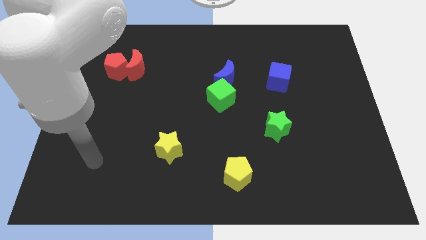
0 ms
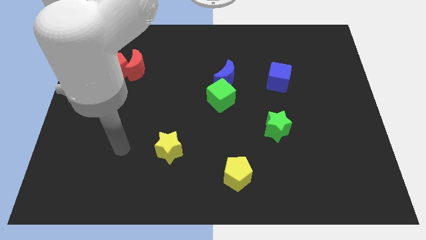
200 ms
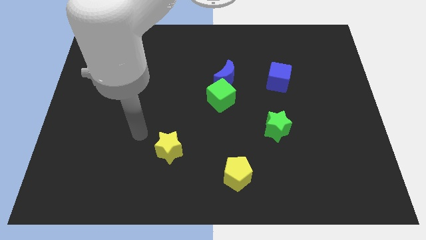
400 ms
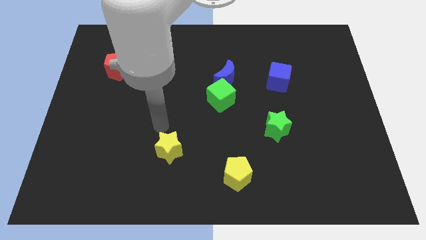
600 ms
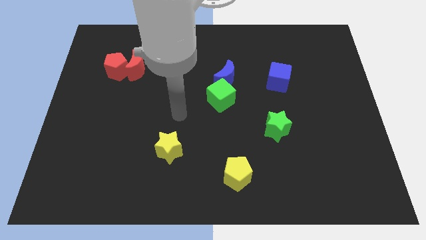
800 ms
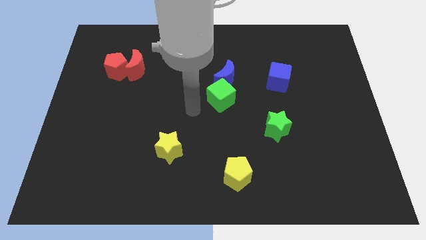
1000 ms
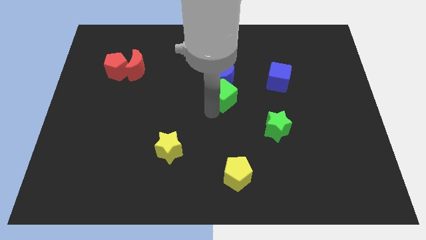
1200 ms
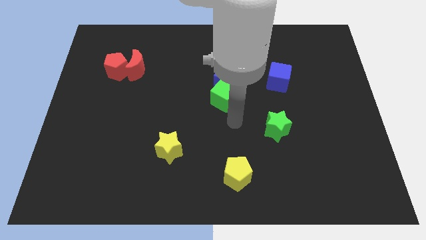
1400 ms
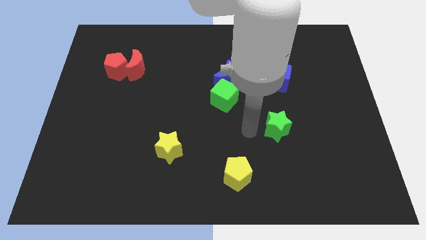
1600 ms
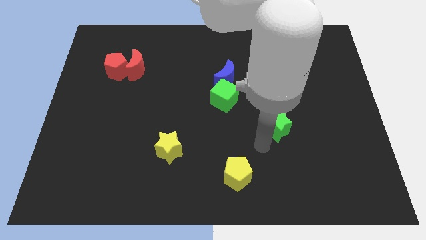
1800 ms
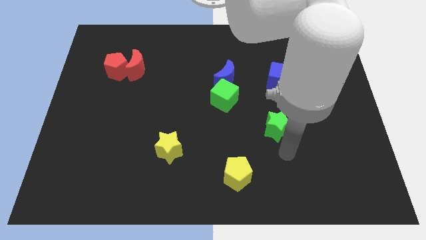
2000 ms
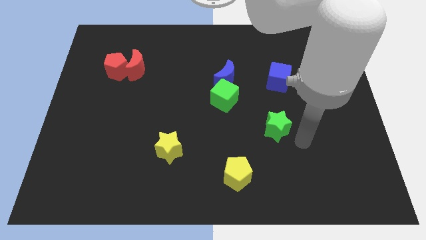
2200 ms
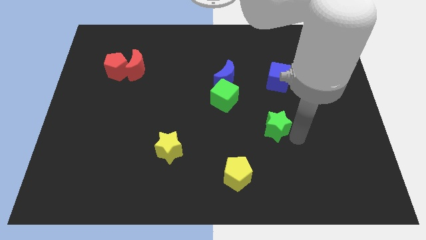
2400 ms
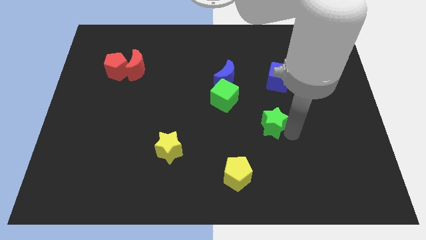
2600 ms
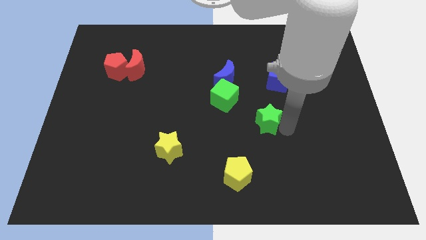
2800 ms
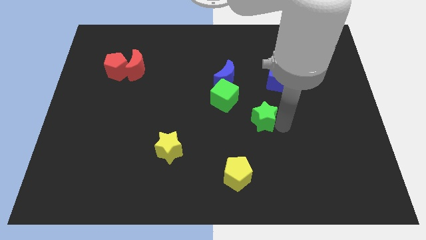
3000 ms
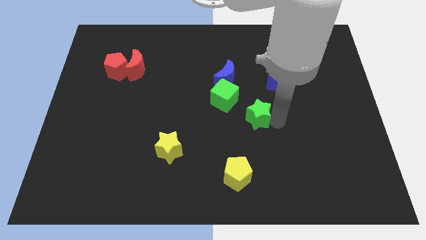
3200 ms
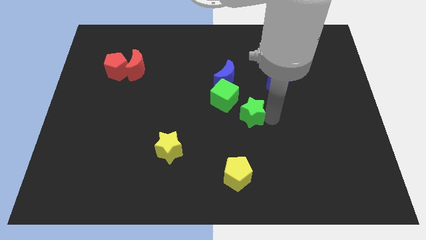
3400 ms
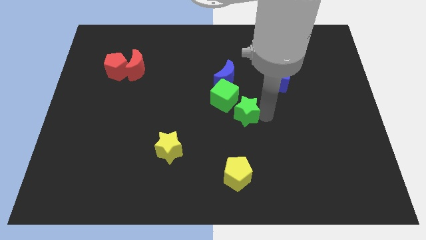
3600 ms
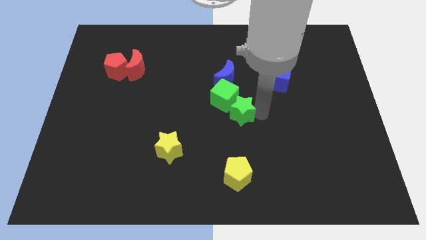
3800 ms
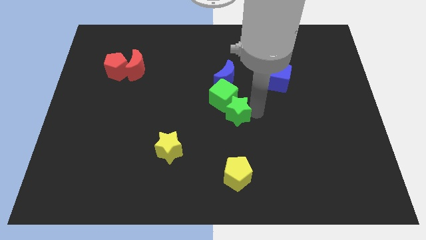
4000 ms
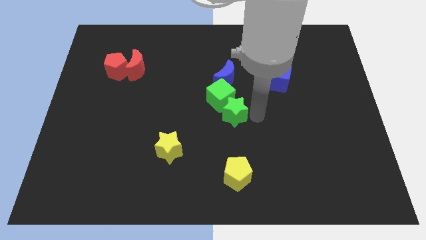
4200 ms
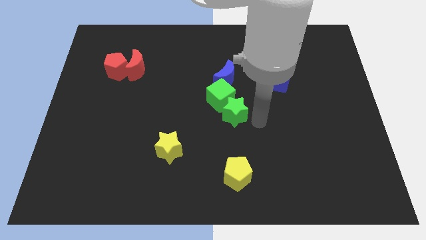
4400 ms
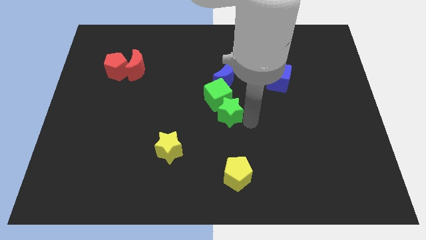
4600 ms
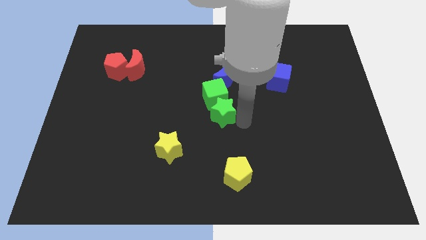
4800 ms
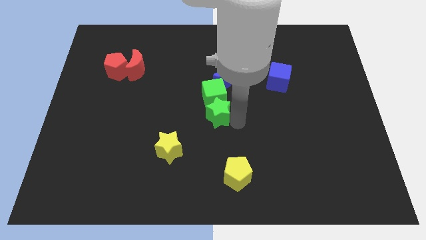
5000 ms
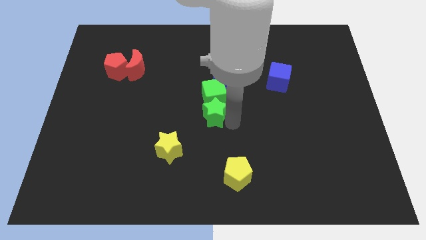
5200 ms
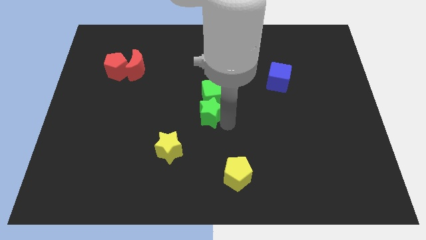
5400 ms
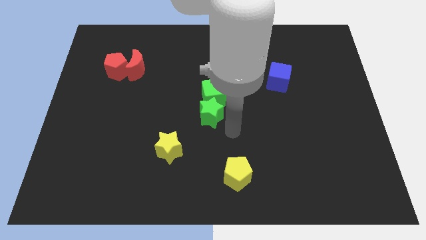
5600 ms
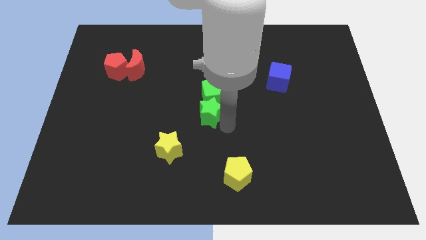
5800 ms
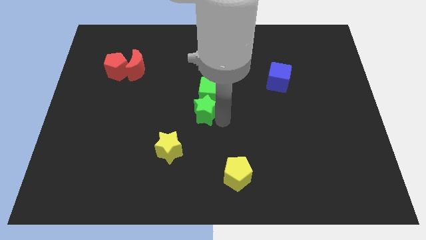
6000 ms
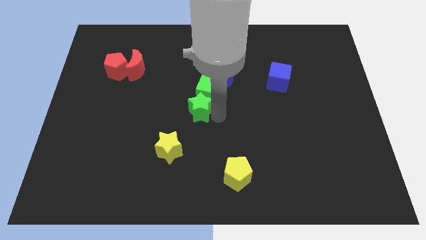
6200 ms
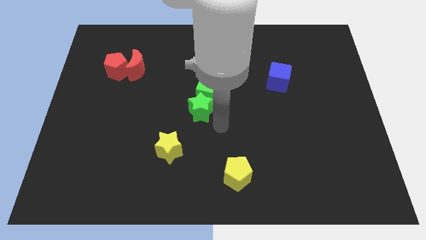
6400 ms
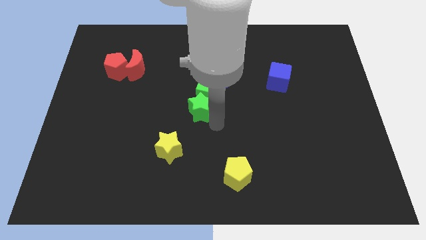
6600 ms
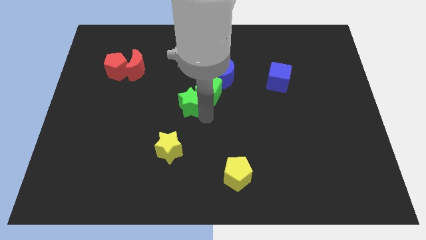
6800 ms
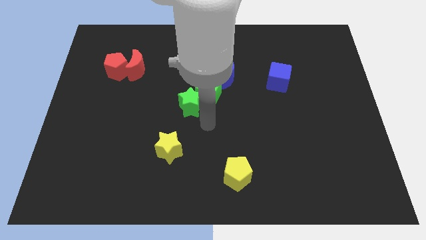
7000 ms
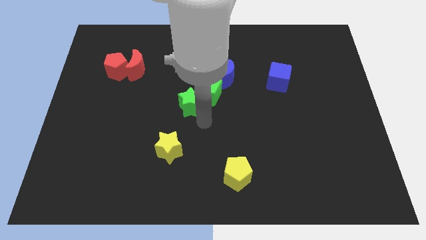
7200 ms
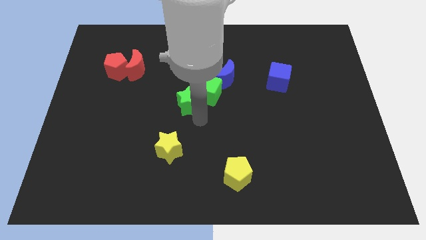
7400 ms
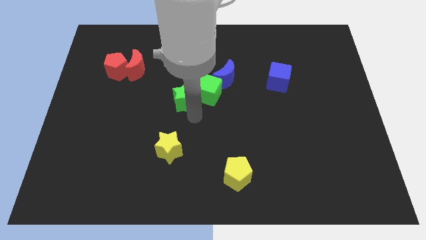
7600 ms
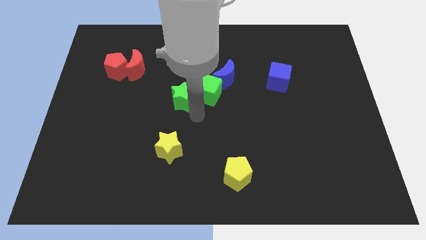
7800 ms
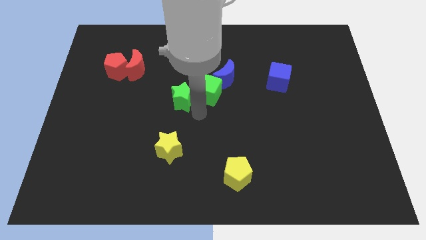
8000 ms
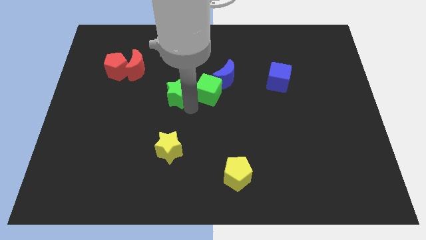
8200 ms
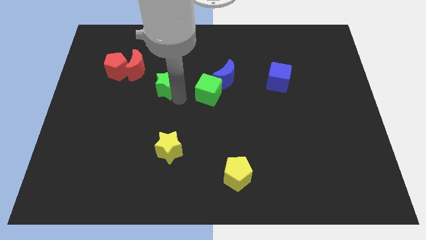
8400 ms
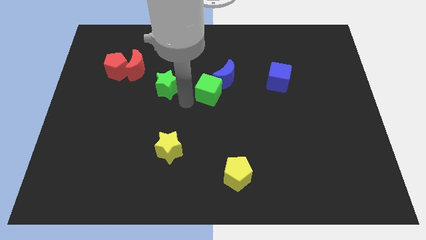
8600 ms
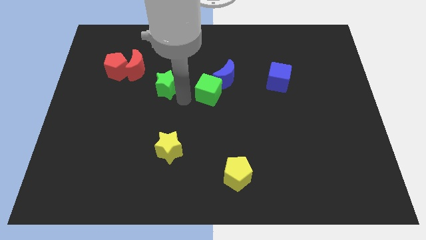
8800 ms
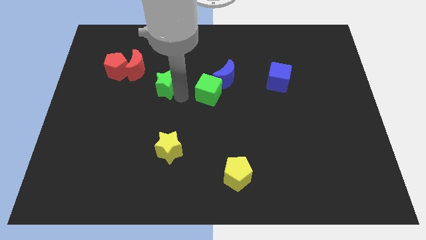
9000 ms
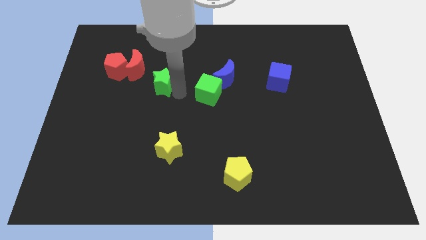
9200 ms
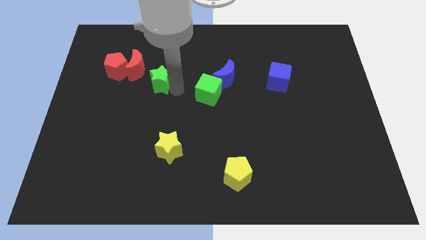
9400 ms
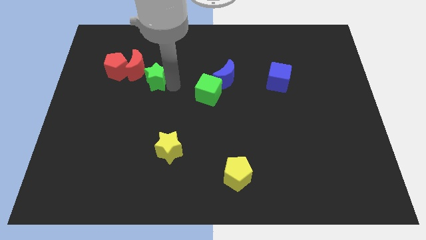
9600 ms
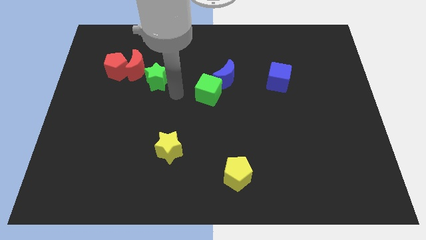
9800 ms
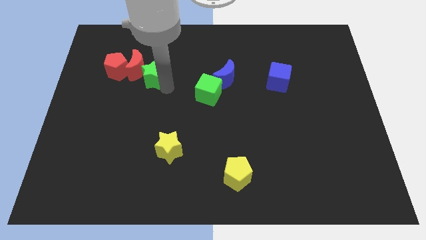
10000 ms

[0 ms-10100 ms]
push the green star to the red moon

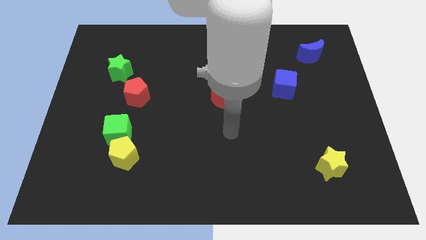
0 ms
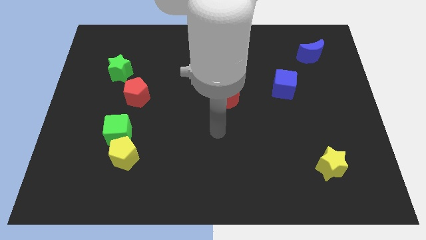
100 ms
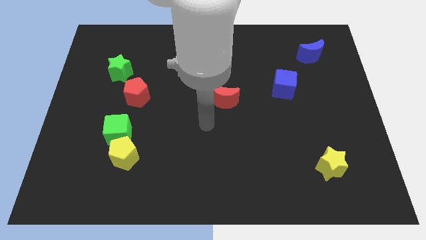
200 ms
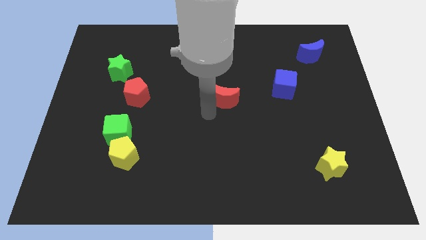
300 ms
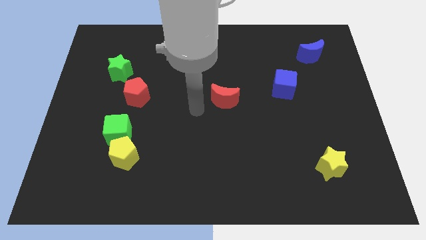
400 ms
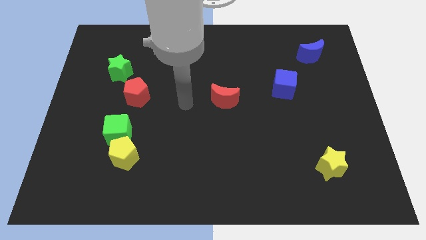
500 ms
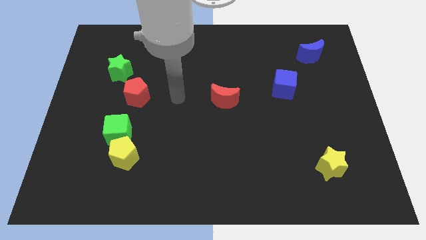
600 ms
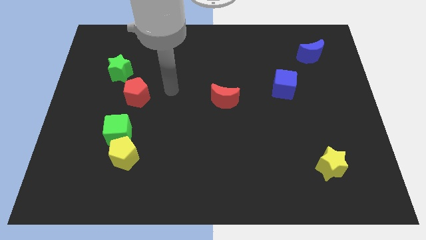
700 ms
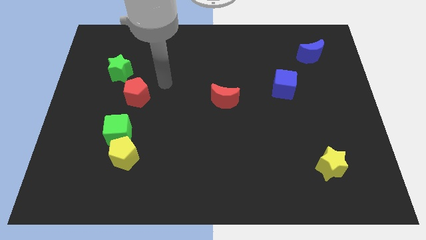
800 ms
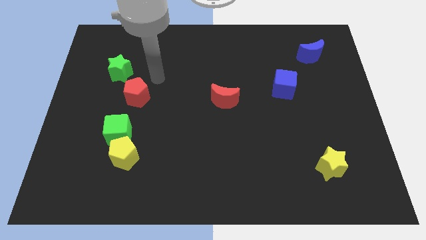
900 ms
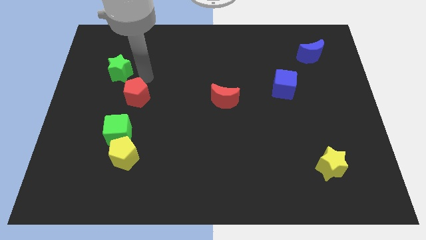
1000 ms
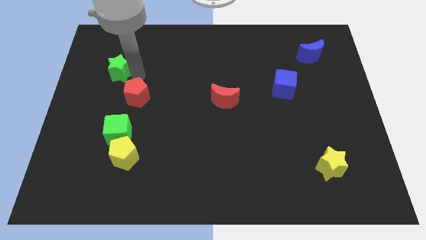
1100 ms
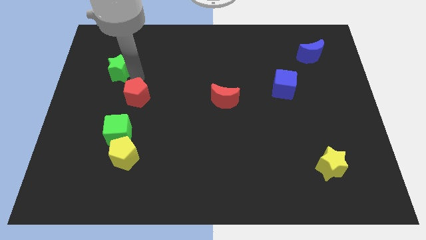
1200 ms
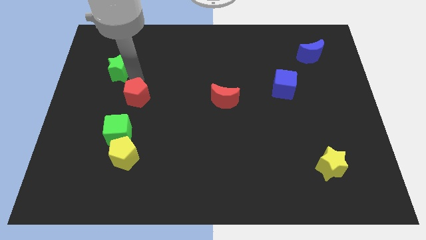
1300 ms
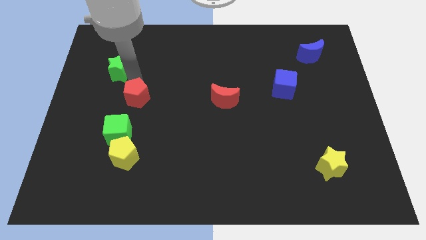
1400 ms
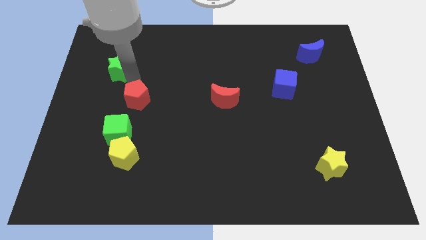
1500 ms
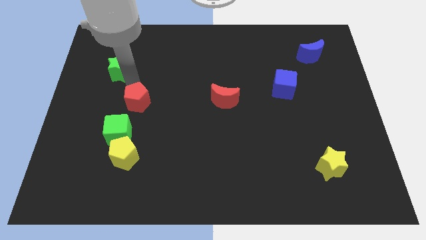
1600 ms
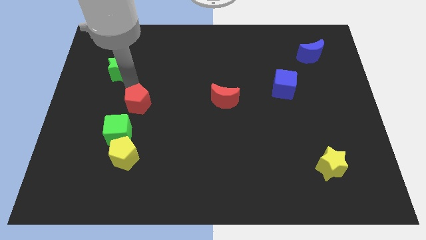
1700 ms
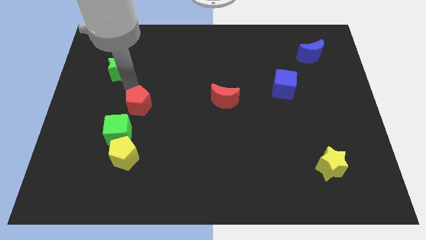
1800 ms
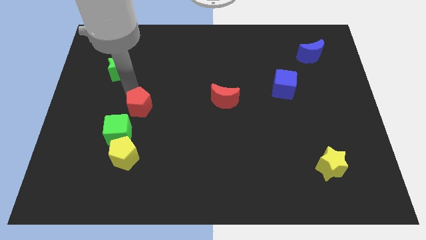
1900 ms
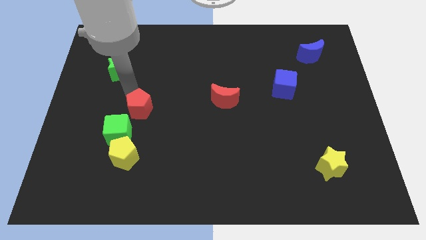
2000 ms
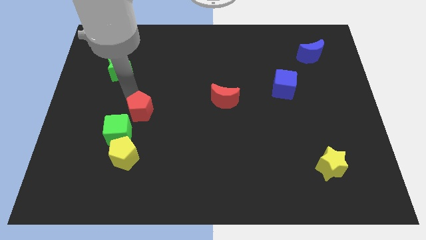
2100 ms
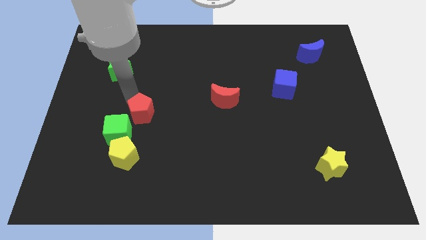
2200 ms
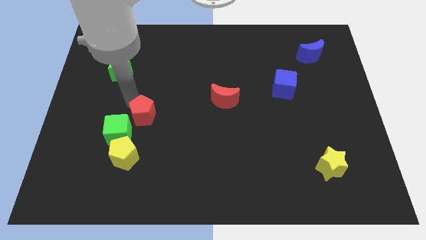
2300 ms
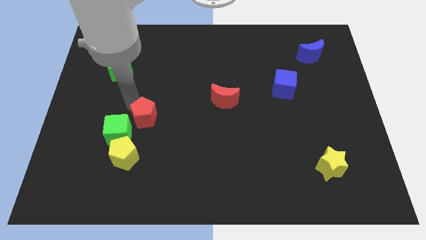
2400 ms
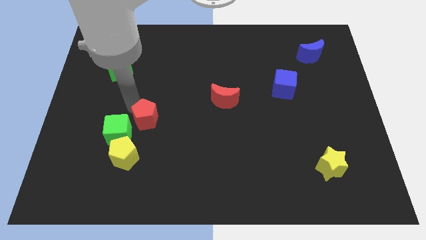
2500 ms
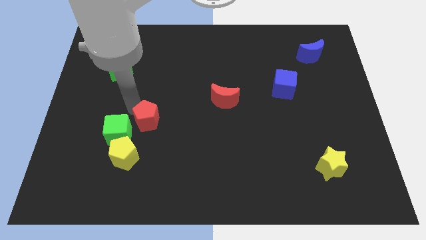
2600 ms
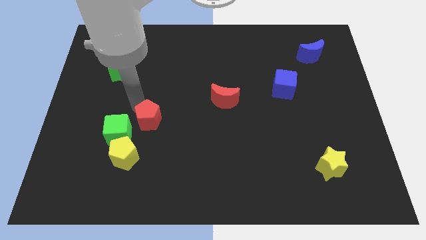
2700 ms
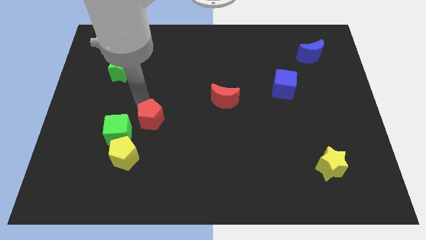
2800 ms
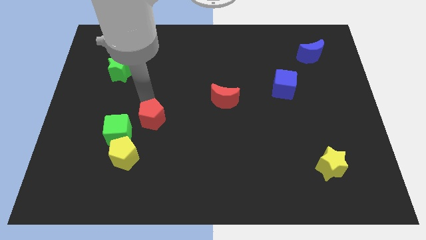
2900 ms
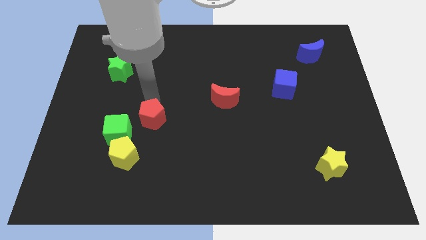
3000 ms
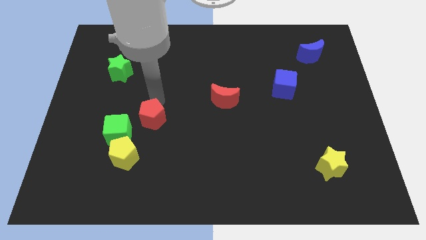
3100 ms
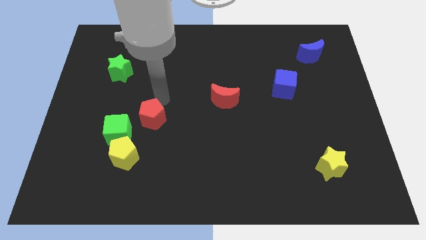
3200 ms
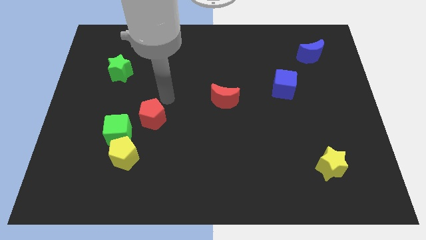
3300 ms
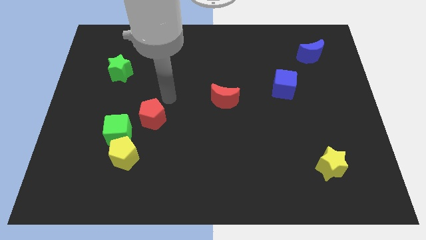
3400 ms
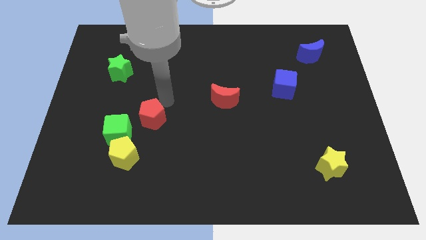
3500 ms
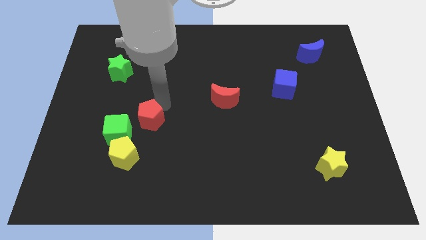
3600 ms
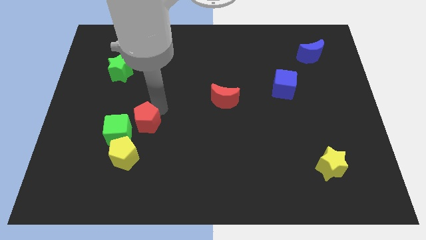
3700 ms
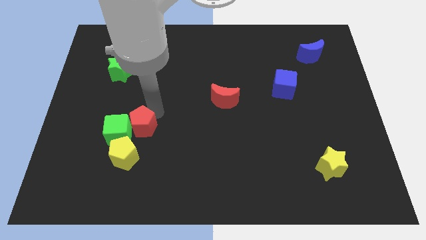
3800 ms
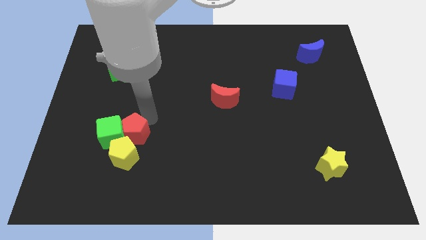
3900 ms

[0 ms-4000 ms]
move the red pentagon to the yellow pentagon
